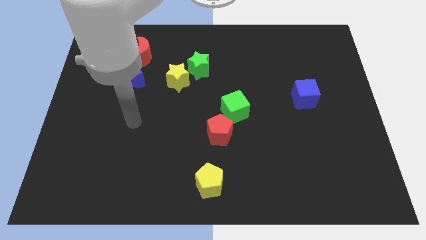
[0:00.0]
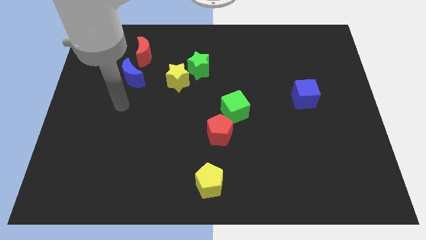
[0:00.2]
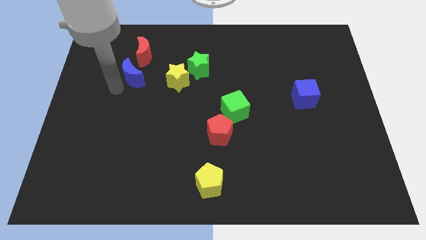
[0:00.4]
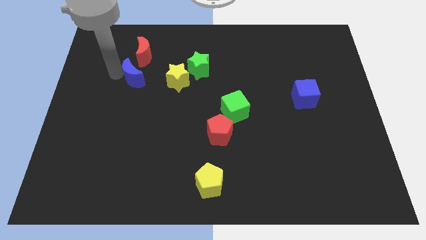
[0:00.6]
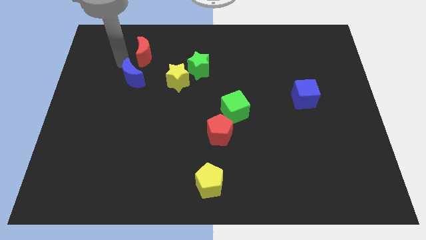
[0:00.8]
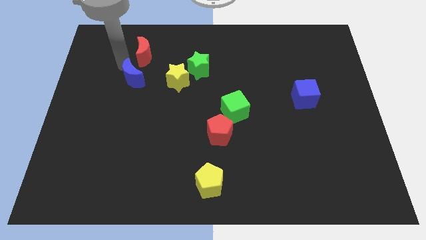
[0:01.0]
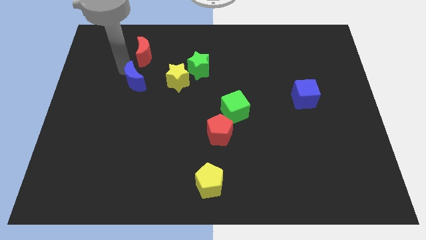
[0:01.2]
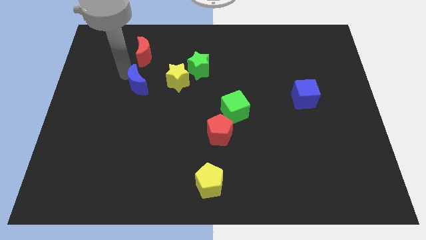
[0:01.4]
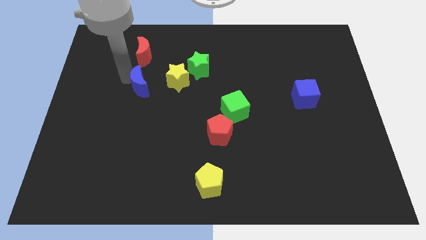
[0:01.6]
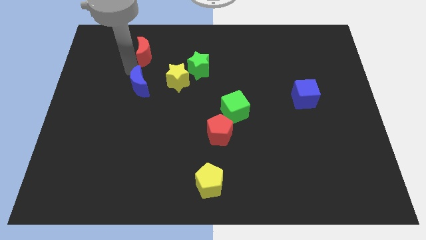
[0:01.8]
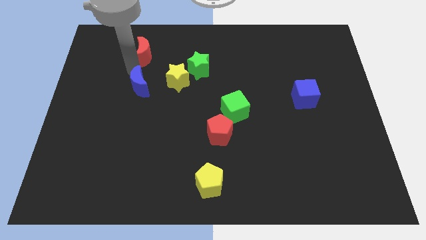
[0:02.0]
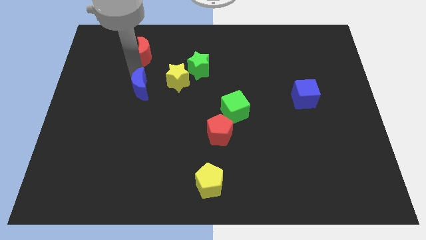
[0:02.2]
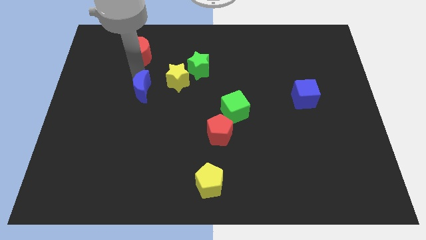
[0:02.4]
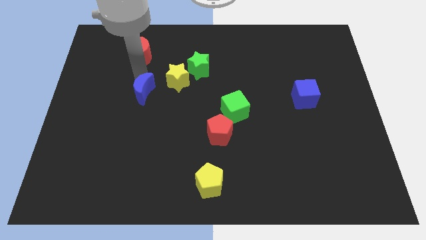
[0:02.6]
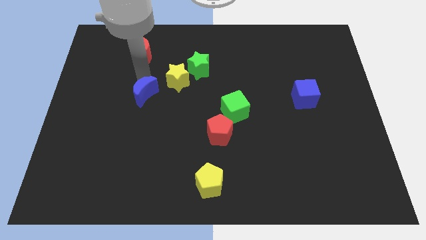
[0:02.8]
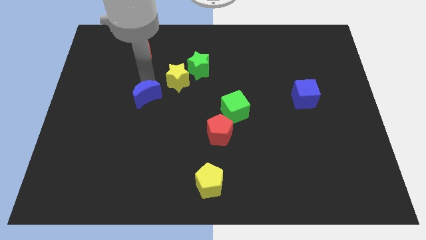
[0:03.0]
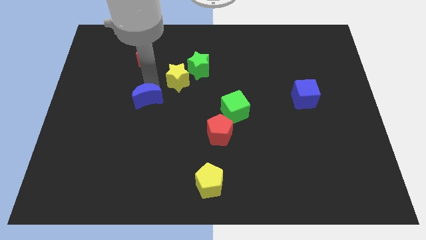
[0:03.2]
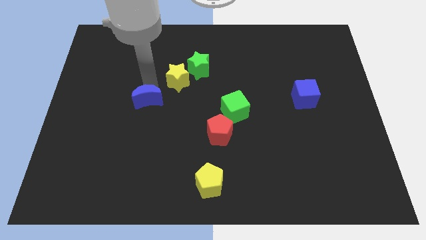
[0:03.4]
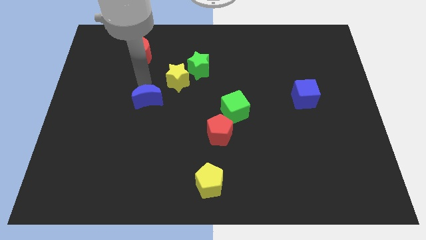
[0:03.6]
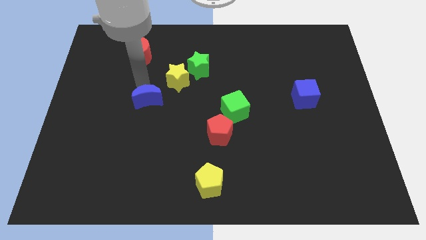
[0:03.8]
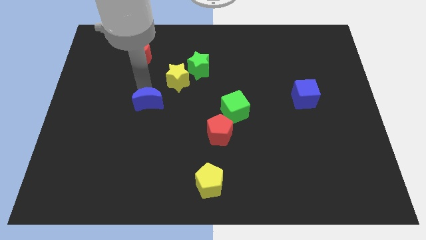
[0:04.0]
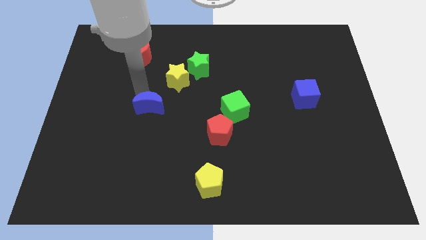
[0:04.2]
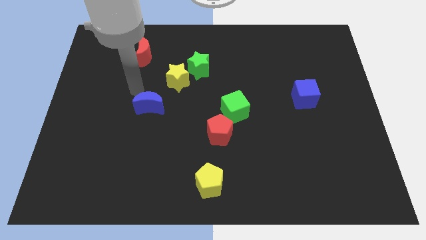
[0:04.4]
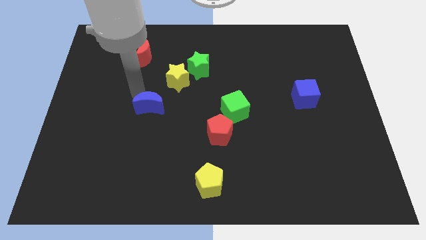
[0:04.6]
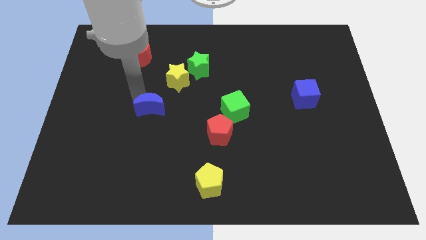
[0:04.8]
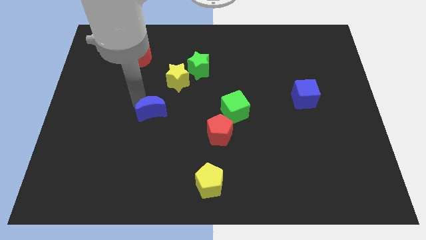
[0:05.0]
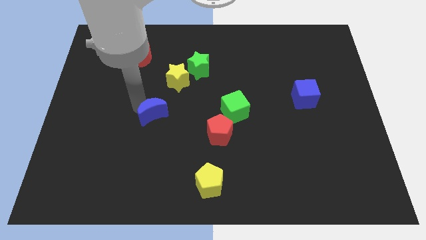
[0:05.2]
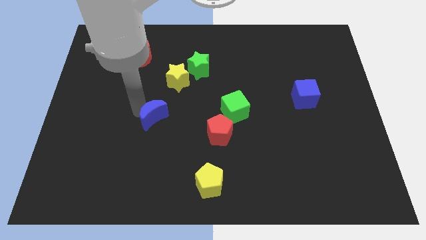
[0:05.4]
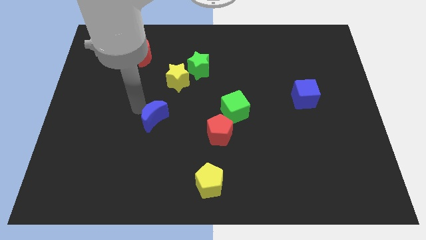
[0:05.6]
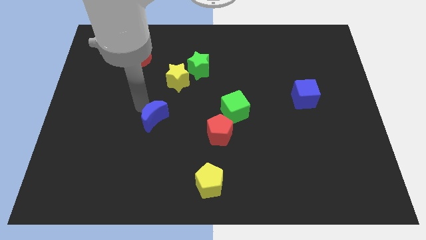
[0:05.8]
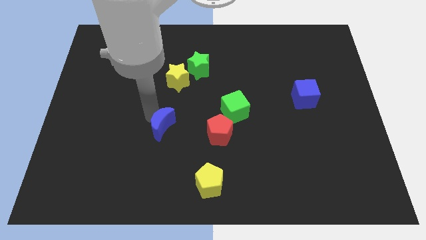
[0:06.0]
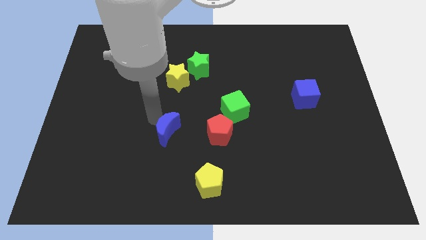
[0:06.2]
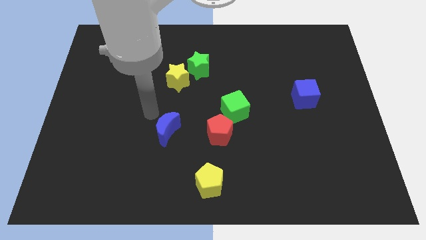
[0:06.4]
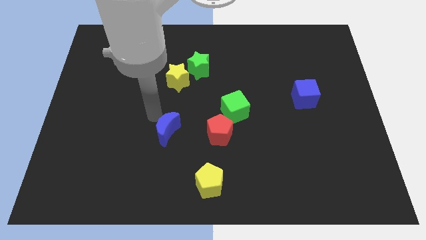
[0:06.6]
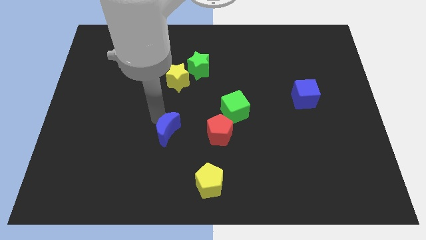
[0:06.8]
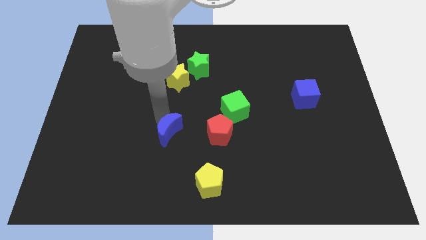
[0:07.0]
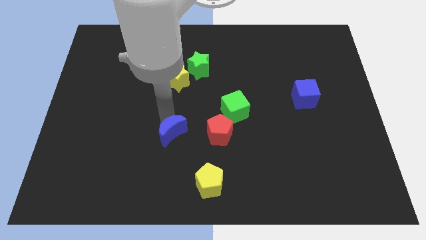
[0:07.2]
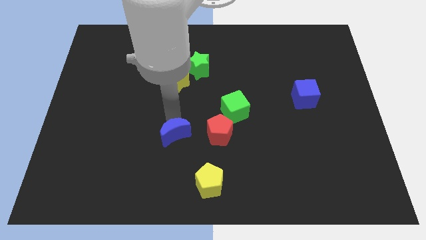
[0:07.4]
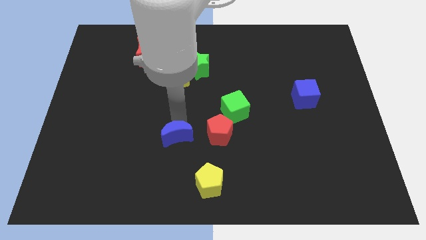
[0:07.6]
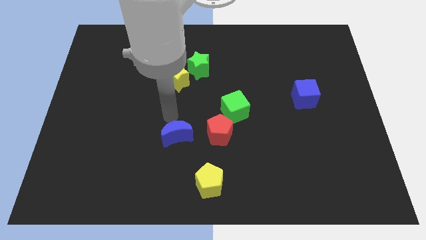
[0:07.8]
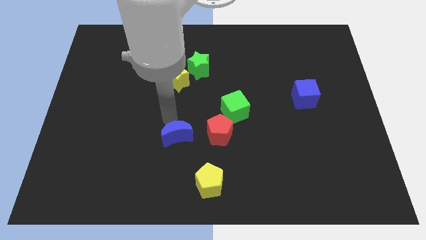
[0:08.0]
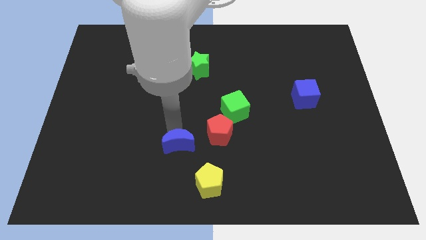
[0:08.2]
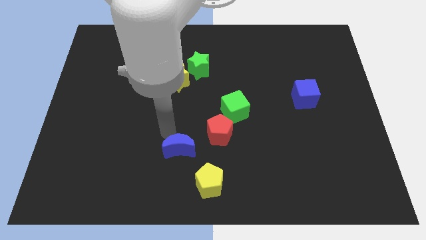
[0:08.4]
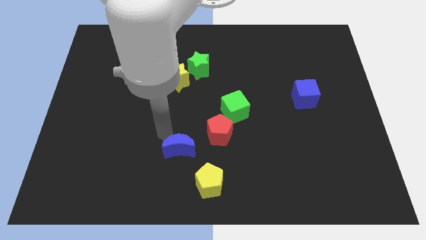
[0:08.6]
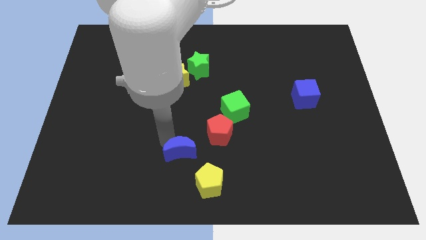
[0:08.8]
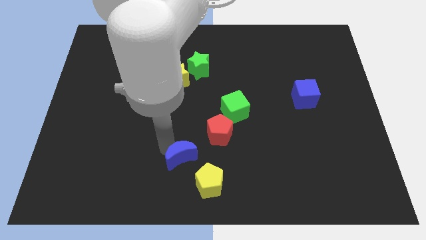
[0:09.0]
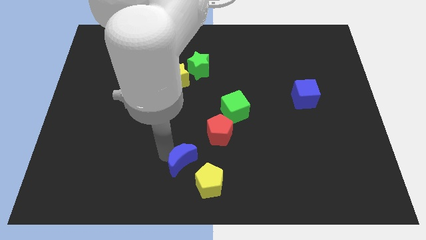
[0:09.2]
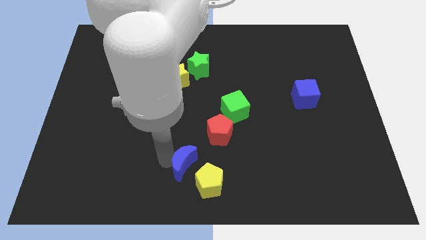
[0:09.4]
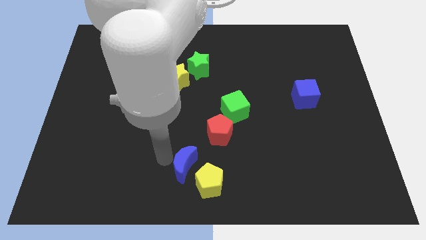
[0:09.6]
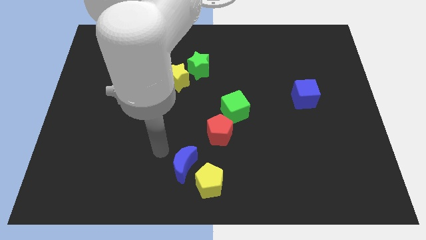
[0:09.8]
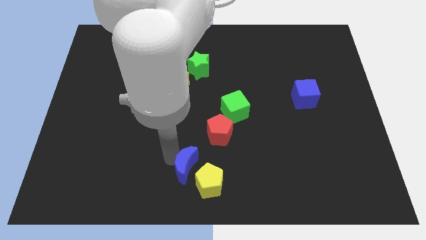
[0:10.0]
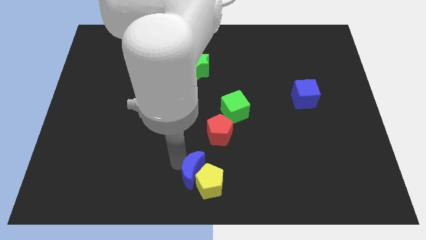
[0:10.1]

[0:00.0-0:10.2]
put the blue moon next to the yellow pentagon

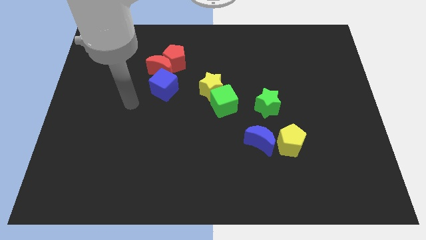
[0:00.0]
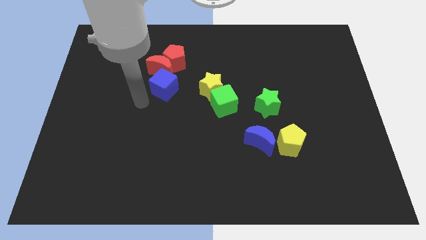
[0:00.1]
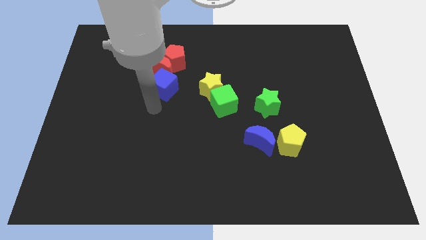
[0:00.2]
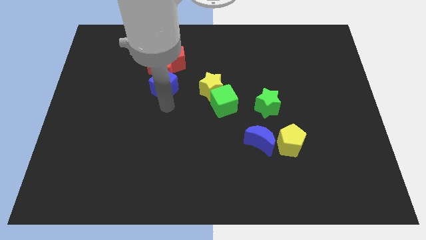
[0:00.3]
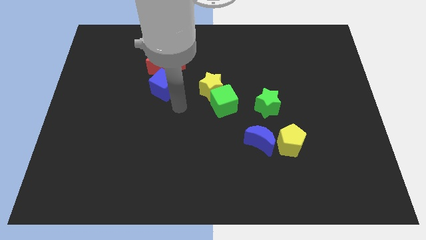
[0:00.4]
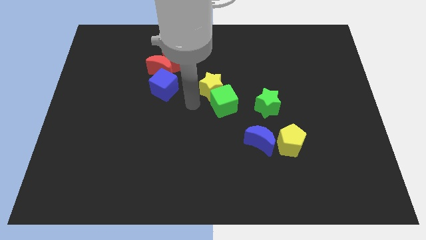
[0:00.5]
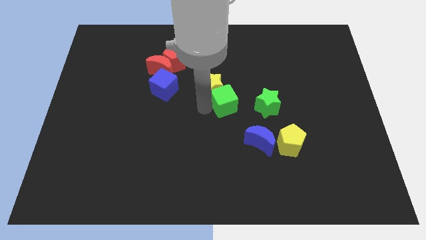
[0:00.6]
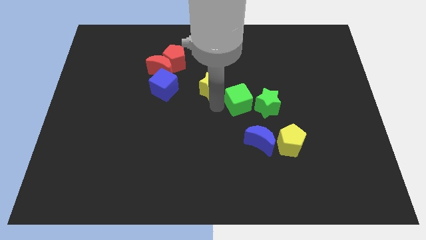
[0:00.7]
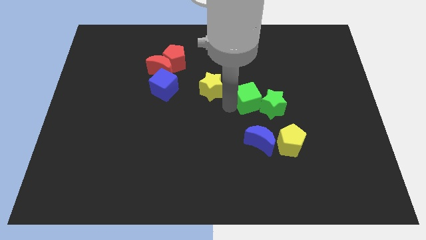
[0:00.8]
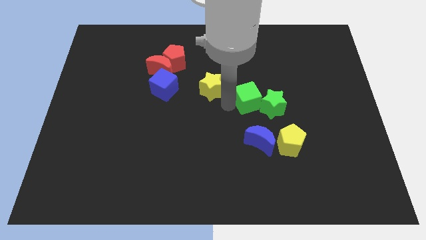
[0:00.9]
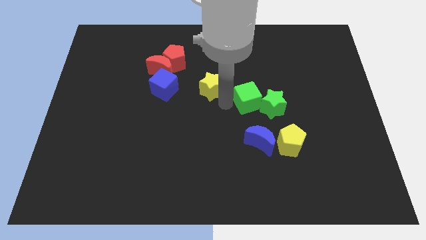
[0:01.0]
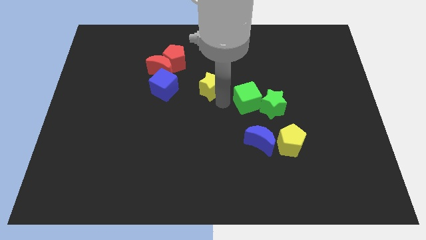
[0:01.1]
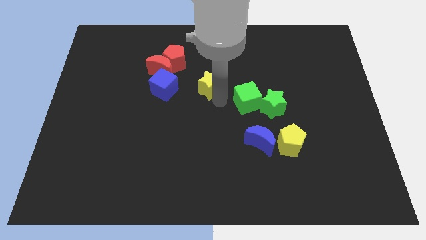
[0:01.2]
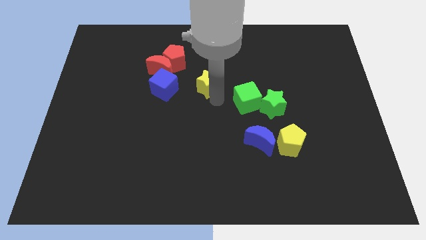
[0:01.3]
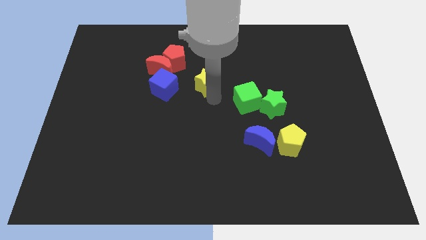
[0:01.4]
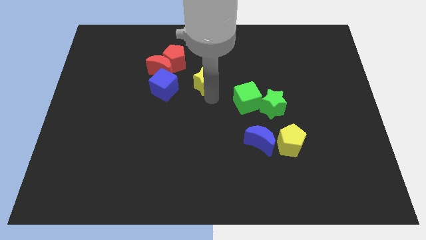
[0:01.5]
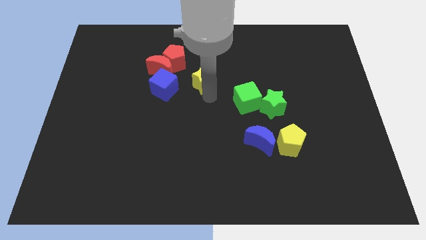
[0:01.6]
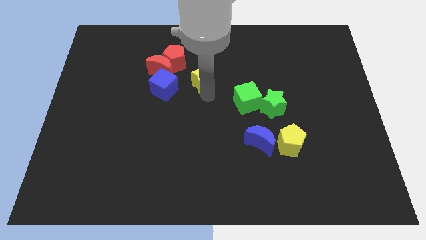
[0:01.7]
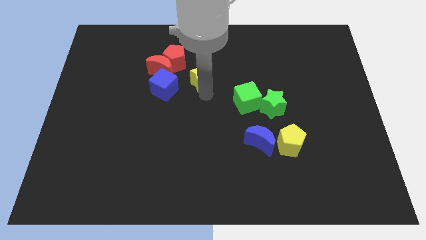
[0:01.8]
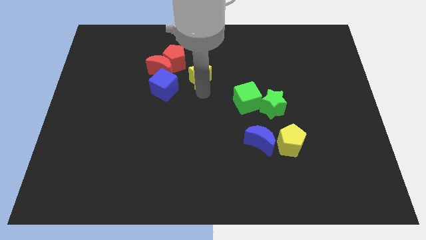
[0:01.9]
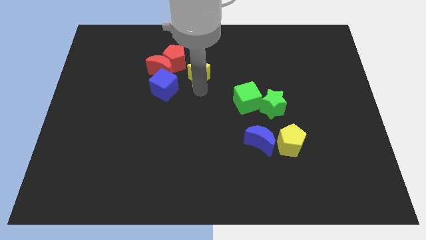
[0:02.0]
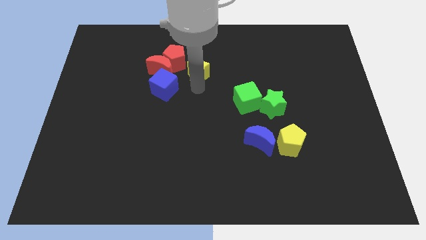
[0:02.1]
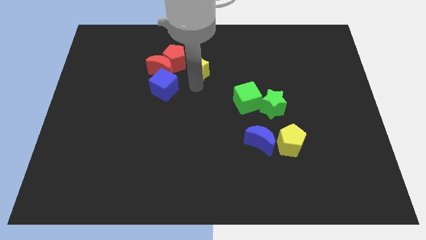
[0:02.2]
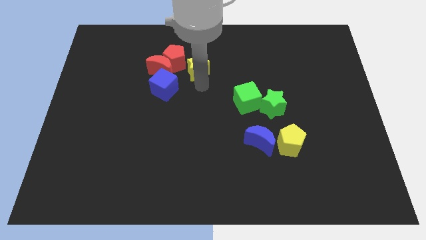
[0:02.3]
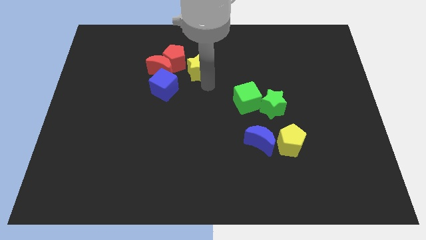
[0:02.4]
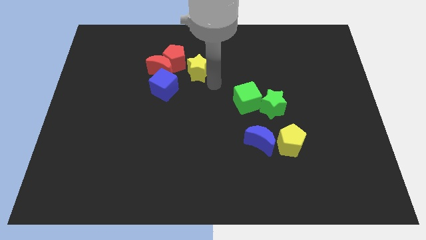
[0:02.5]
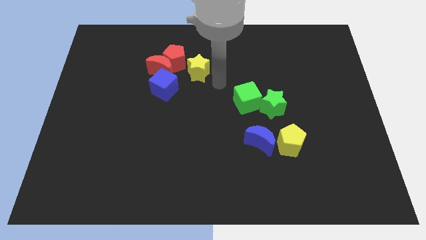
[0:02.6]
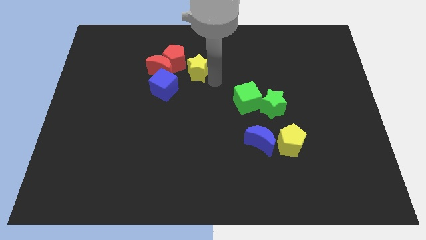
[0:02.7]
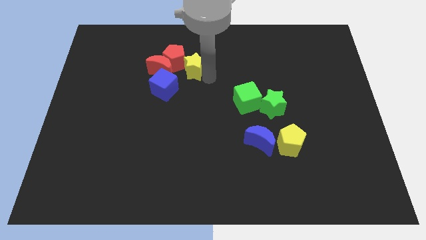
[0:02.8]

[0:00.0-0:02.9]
put the yellow star towards the red pentagon

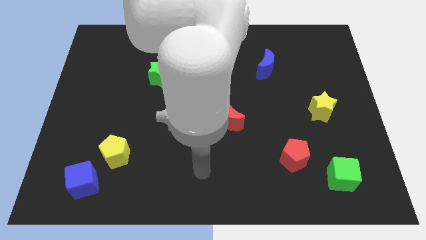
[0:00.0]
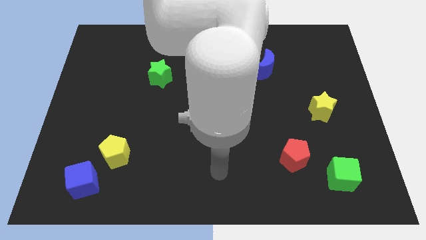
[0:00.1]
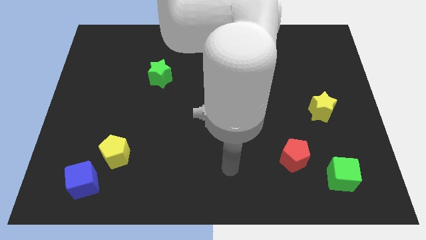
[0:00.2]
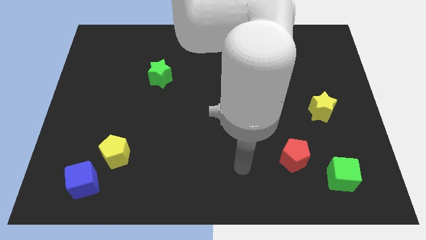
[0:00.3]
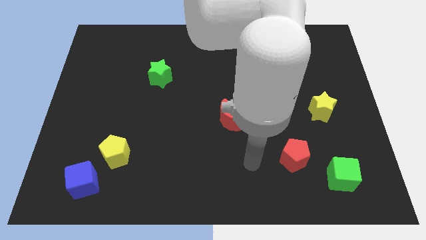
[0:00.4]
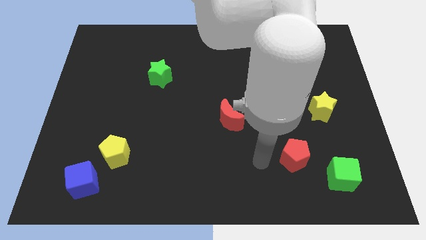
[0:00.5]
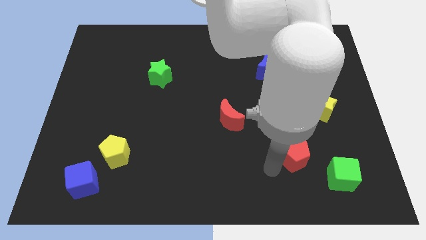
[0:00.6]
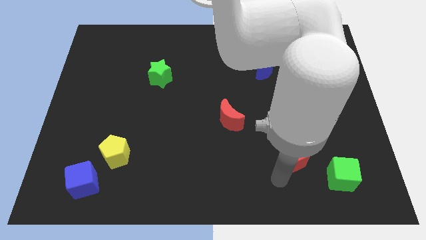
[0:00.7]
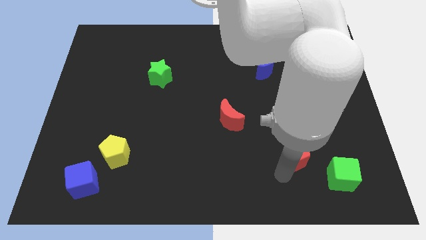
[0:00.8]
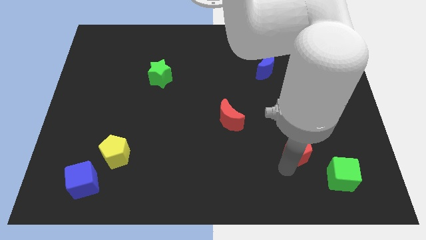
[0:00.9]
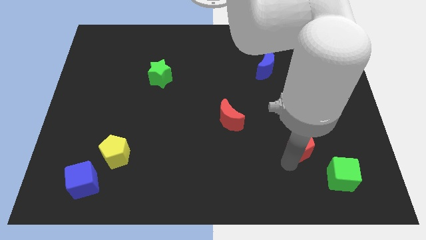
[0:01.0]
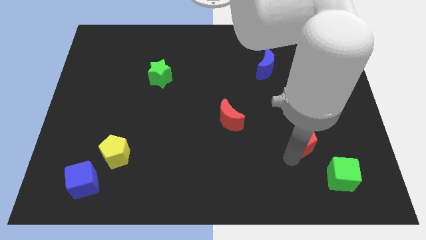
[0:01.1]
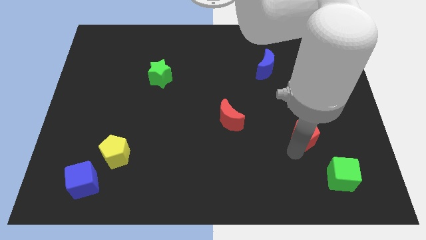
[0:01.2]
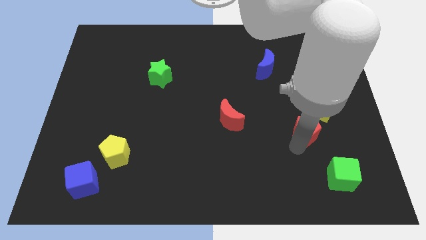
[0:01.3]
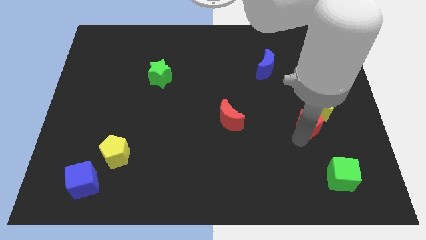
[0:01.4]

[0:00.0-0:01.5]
put the red pentagon towards the yellow star
